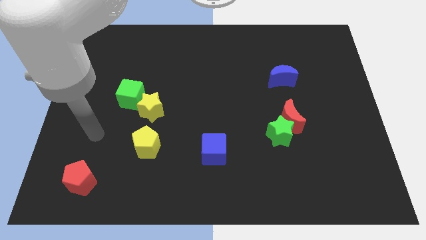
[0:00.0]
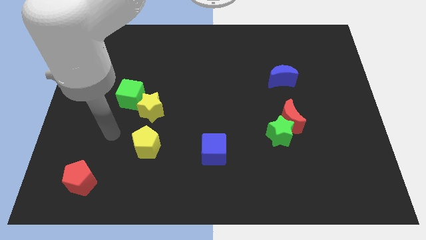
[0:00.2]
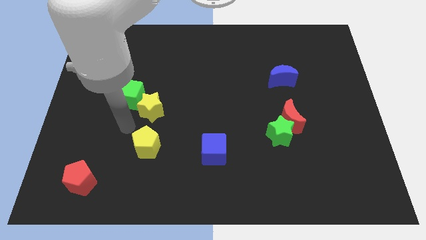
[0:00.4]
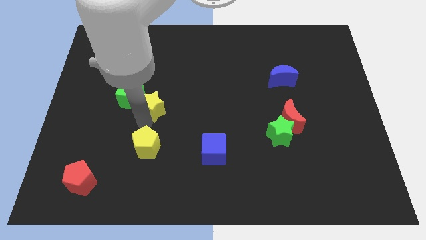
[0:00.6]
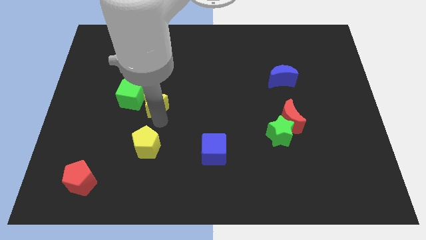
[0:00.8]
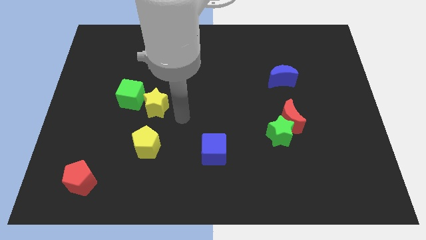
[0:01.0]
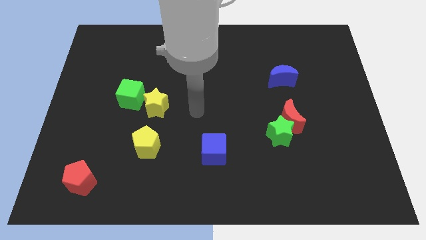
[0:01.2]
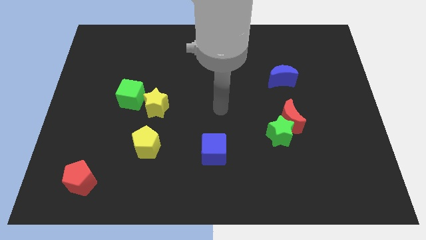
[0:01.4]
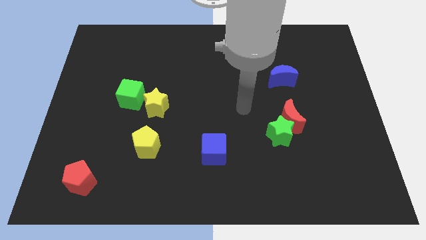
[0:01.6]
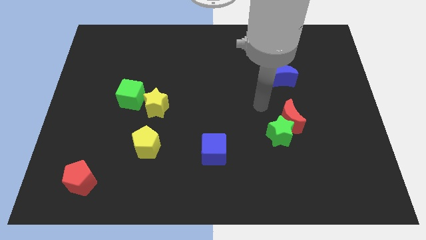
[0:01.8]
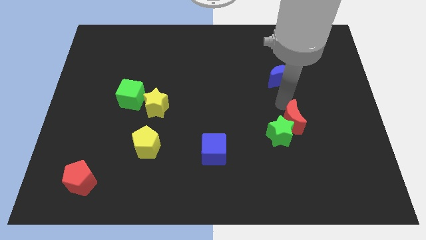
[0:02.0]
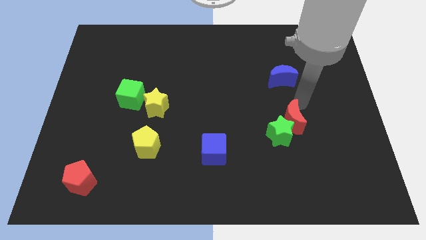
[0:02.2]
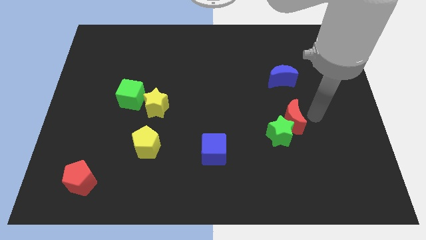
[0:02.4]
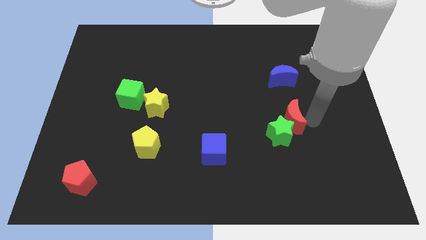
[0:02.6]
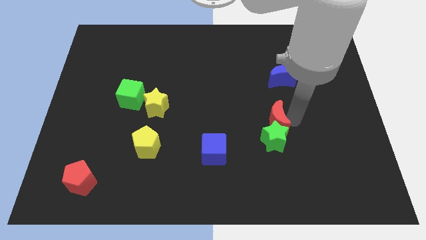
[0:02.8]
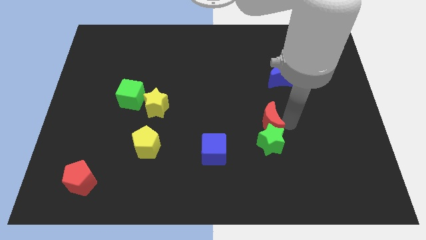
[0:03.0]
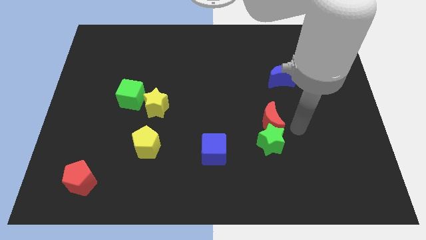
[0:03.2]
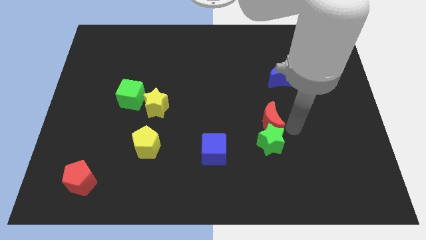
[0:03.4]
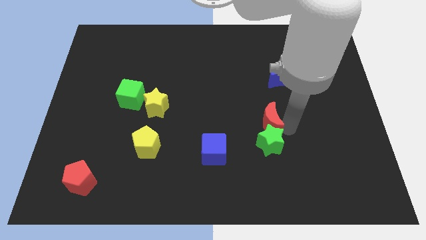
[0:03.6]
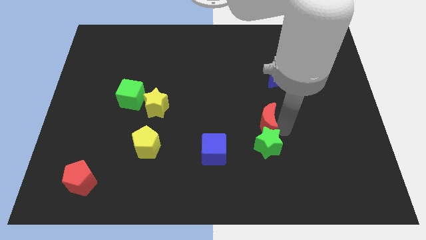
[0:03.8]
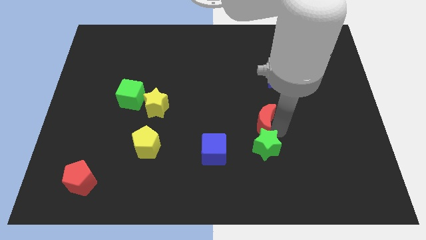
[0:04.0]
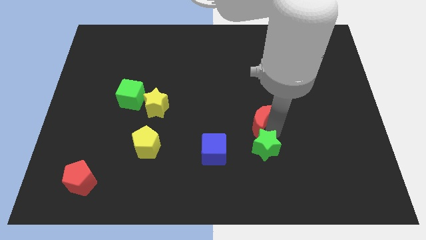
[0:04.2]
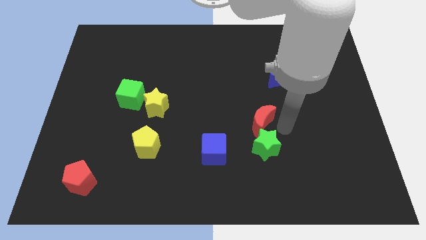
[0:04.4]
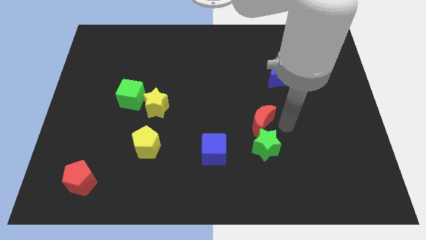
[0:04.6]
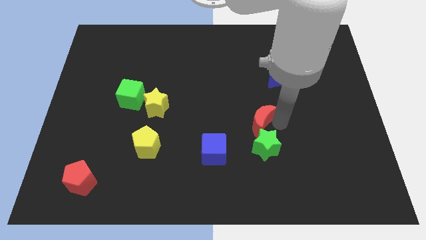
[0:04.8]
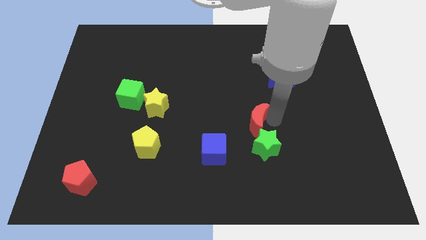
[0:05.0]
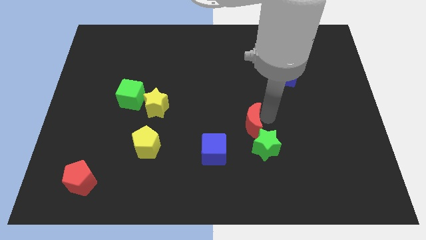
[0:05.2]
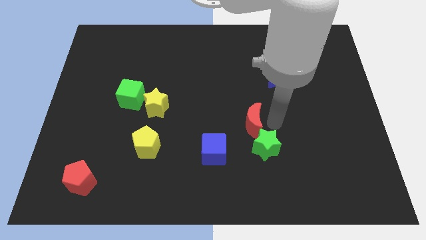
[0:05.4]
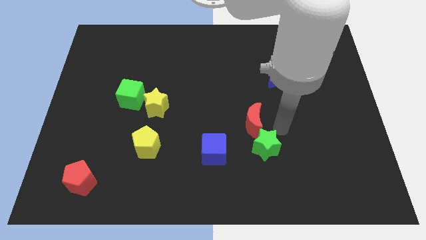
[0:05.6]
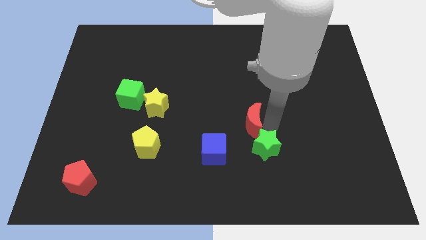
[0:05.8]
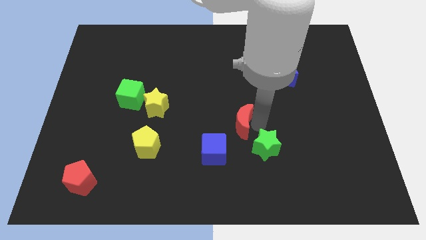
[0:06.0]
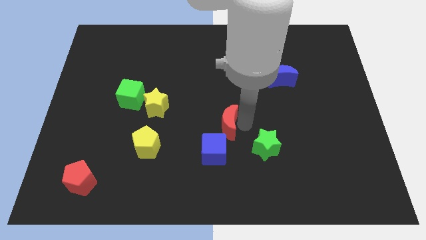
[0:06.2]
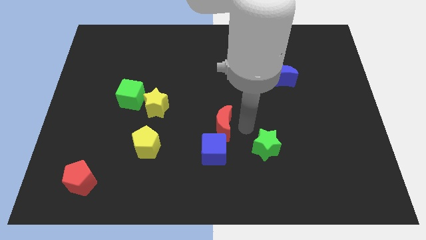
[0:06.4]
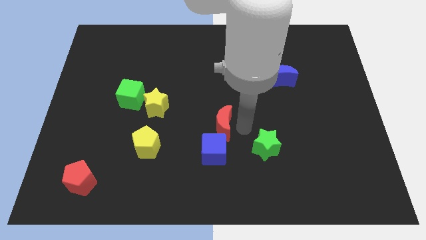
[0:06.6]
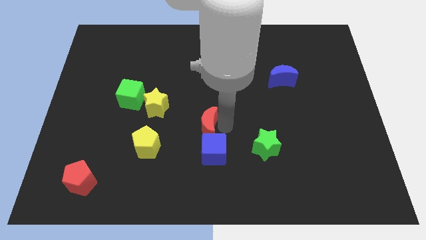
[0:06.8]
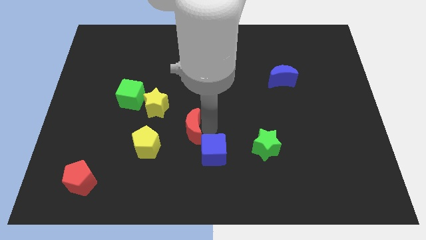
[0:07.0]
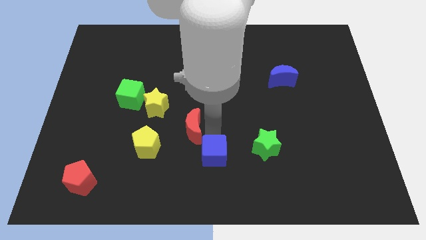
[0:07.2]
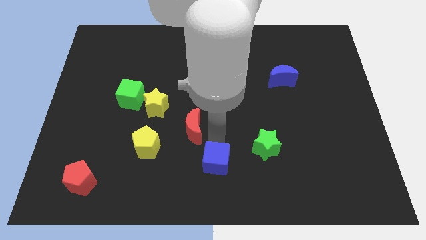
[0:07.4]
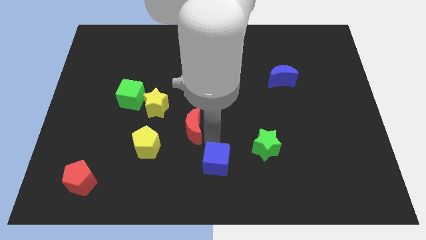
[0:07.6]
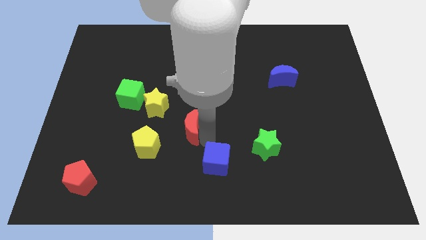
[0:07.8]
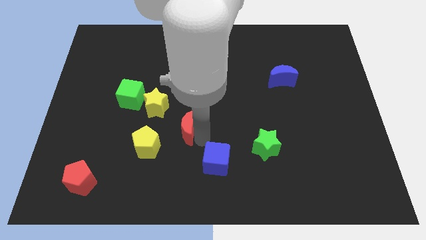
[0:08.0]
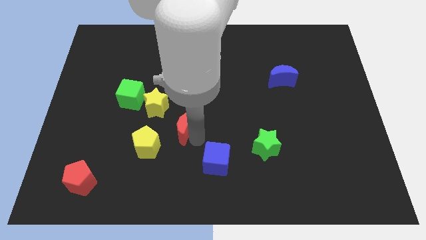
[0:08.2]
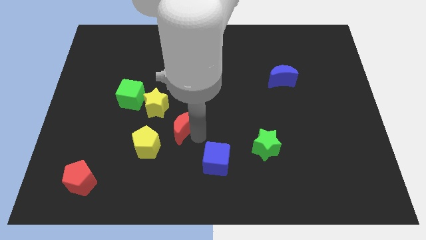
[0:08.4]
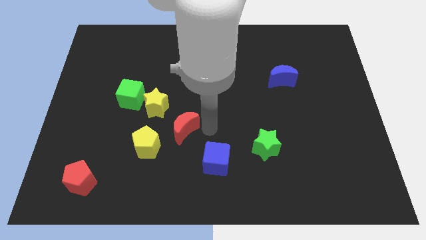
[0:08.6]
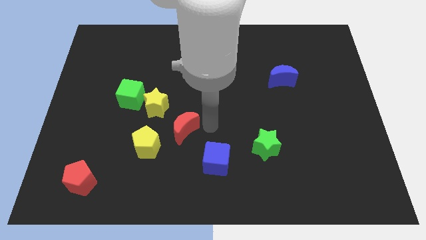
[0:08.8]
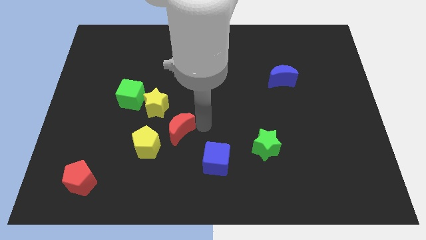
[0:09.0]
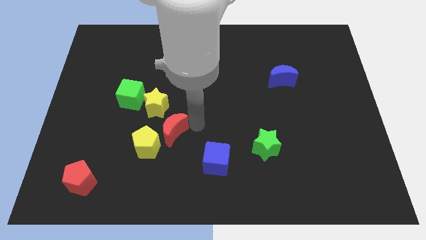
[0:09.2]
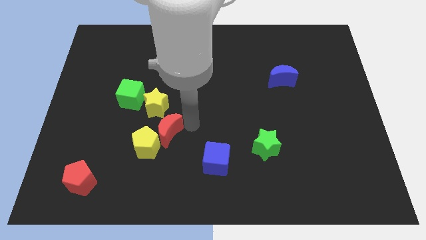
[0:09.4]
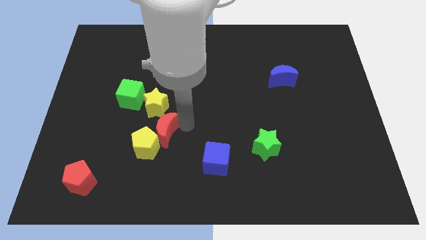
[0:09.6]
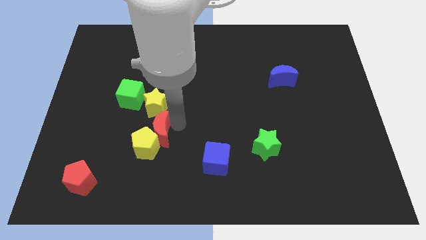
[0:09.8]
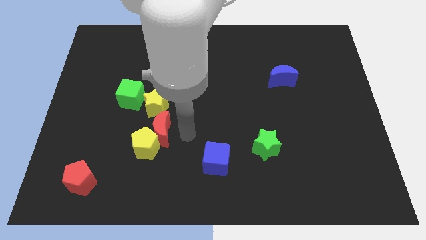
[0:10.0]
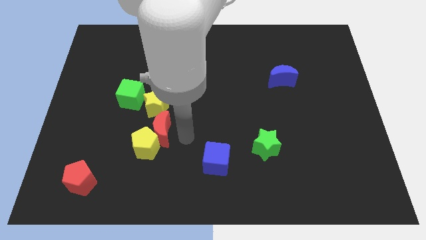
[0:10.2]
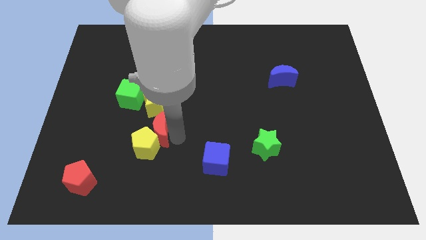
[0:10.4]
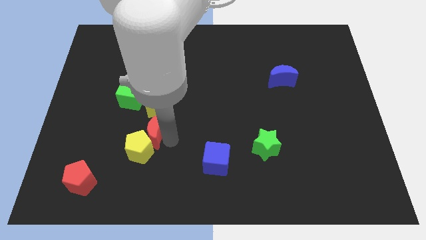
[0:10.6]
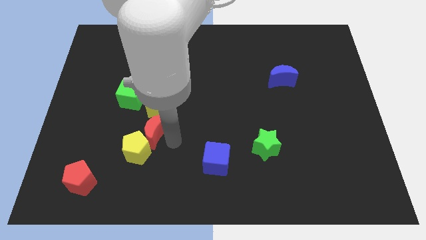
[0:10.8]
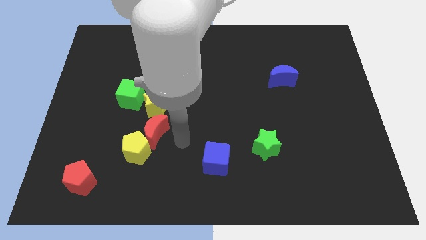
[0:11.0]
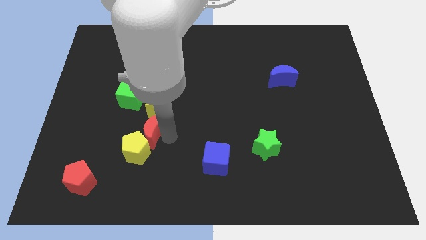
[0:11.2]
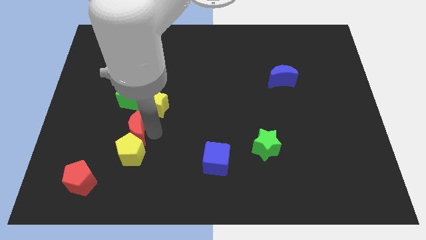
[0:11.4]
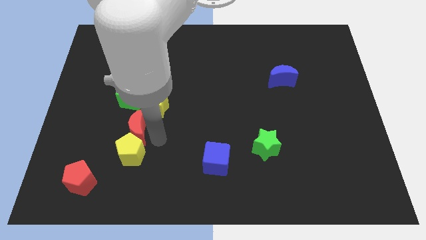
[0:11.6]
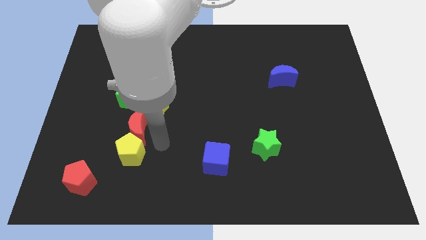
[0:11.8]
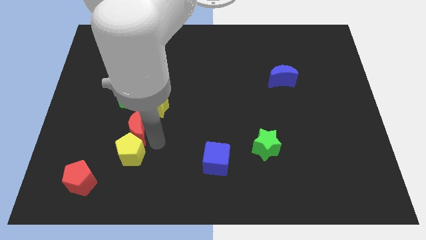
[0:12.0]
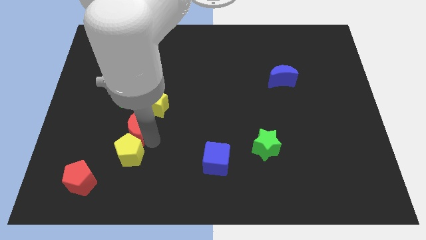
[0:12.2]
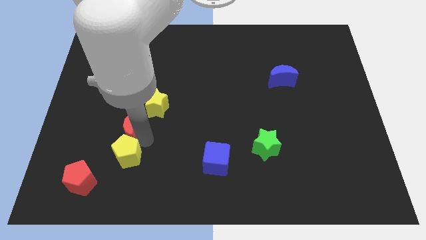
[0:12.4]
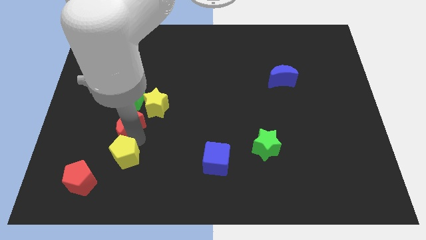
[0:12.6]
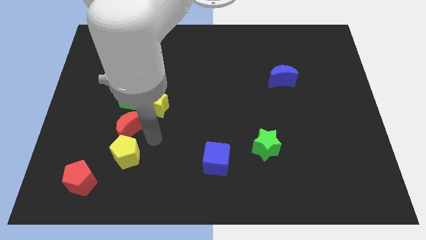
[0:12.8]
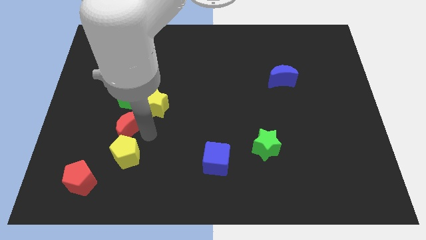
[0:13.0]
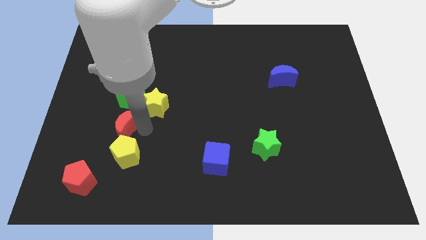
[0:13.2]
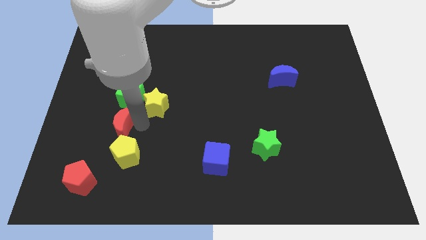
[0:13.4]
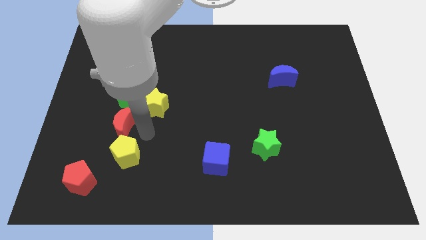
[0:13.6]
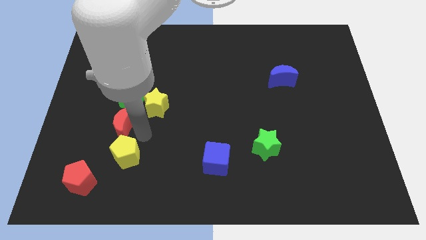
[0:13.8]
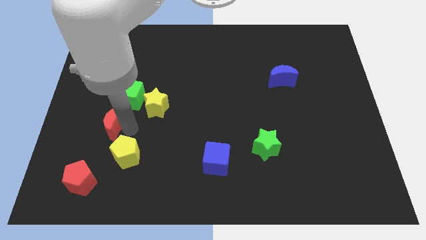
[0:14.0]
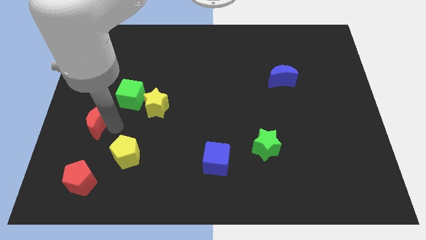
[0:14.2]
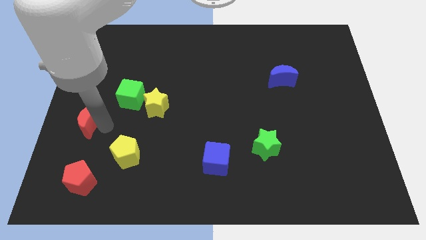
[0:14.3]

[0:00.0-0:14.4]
slide the red moon to the left side

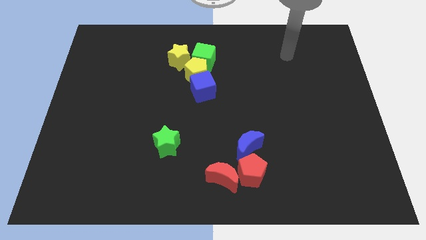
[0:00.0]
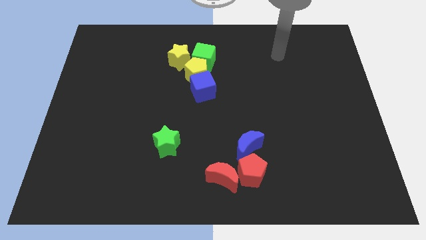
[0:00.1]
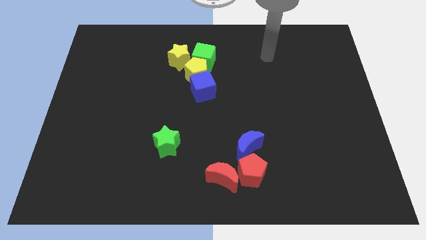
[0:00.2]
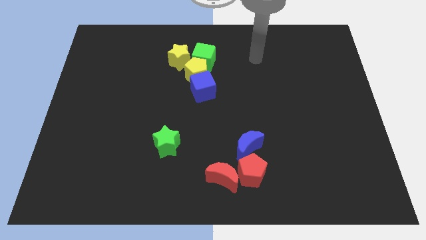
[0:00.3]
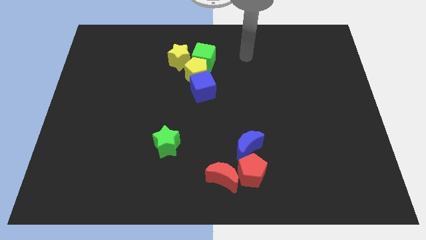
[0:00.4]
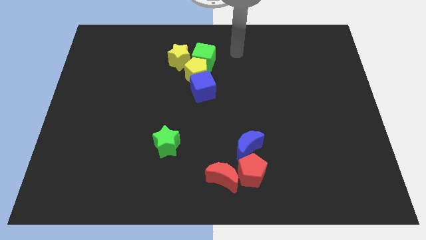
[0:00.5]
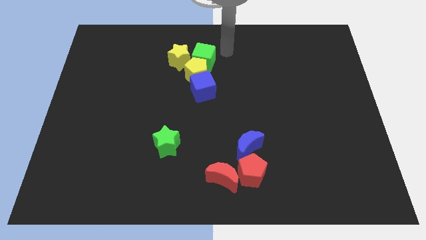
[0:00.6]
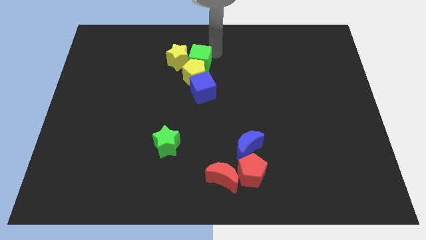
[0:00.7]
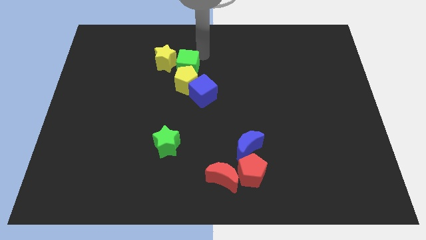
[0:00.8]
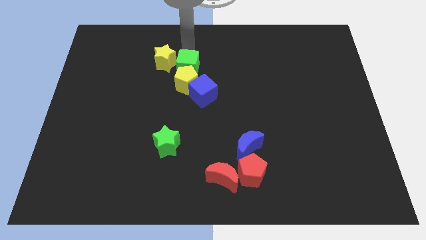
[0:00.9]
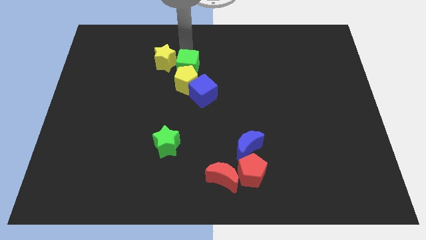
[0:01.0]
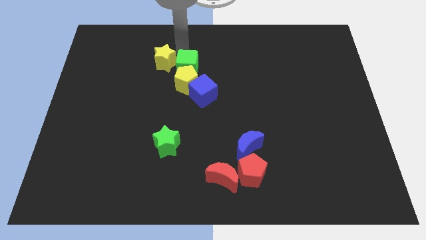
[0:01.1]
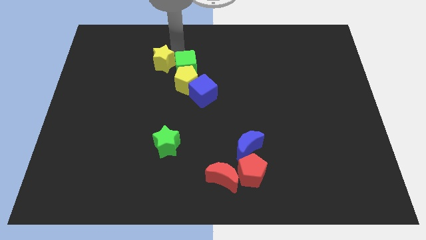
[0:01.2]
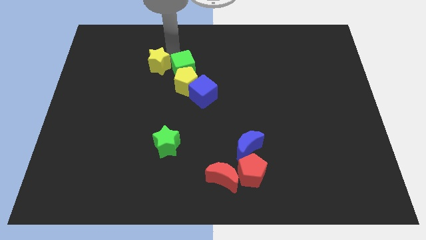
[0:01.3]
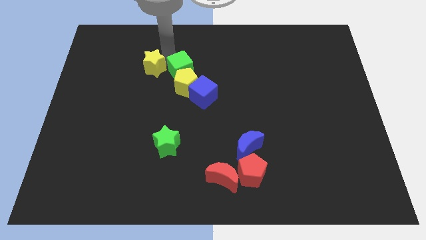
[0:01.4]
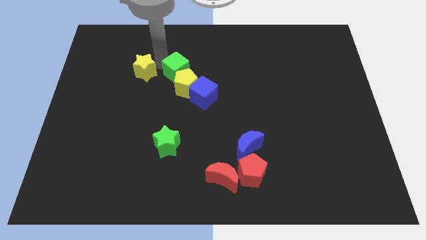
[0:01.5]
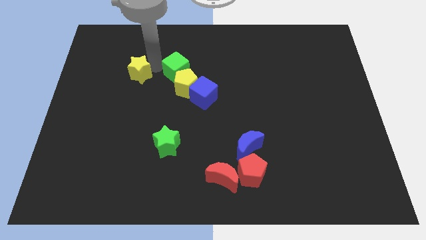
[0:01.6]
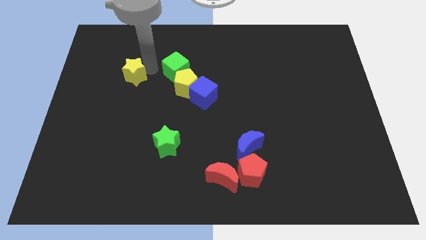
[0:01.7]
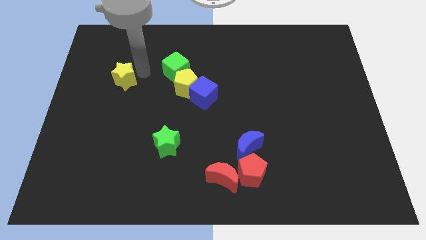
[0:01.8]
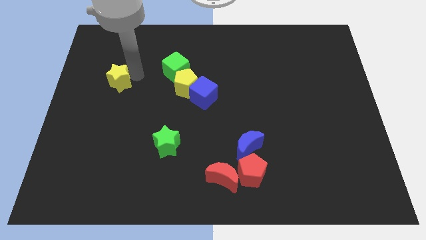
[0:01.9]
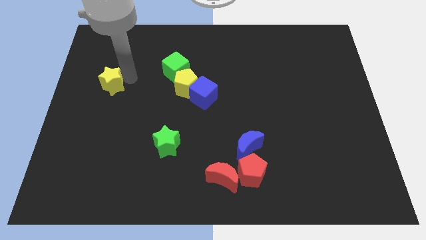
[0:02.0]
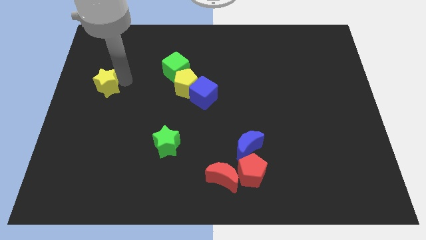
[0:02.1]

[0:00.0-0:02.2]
move the yellow star to the left side
